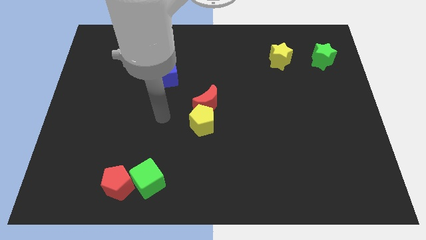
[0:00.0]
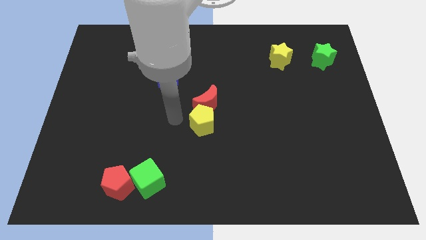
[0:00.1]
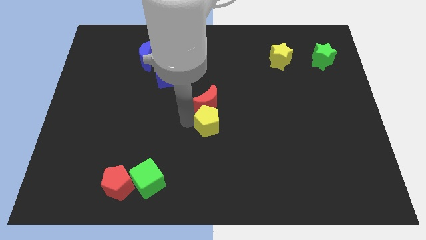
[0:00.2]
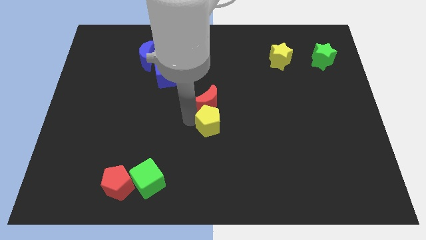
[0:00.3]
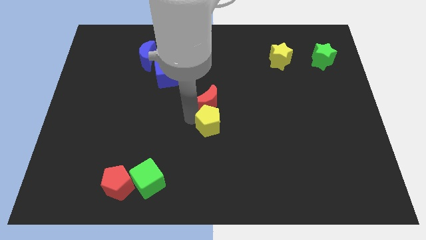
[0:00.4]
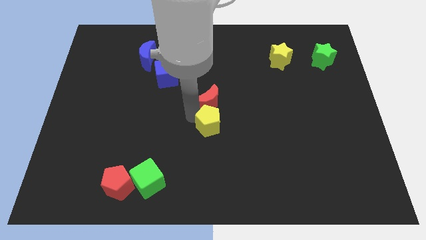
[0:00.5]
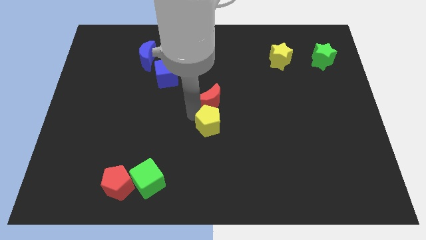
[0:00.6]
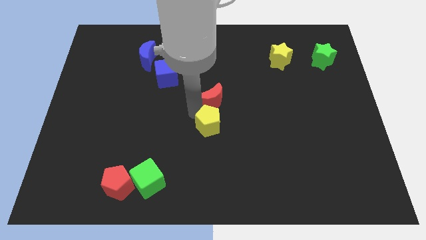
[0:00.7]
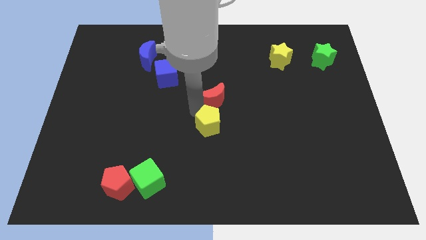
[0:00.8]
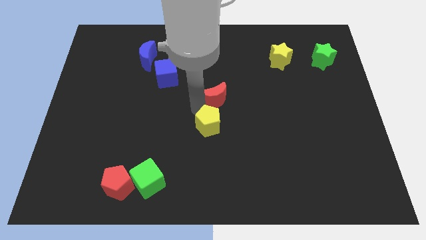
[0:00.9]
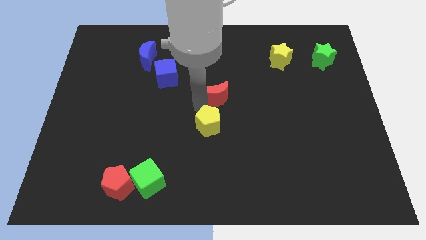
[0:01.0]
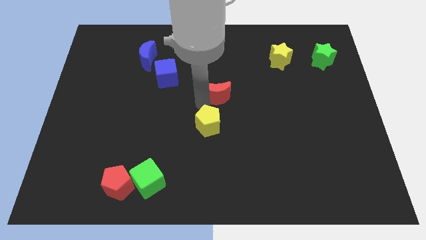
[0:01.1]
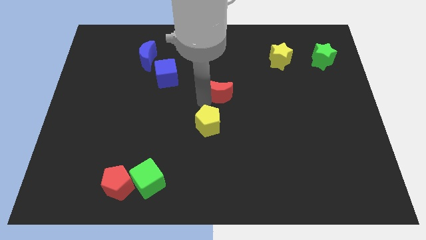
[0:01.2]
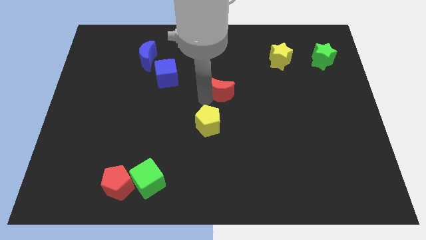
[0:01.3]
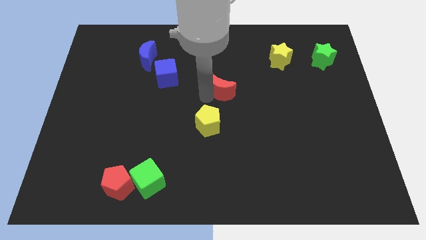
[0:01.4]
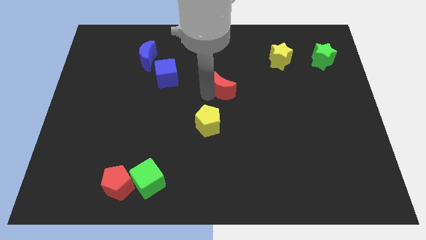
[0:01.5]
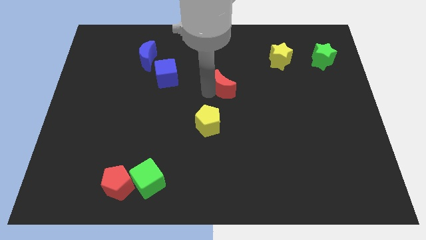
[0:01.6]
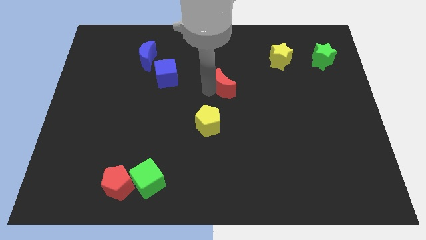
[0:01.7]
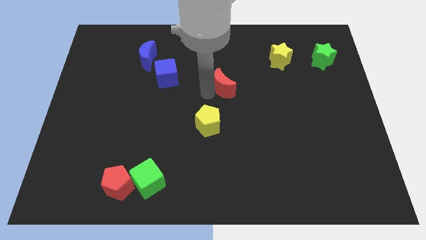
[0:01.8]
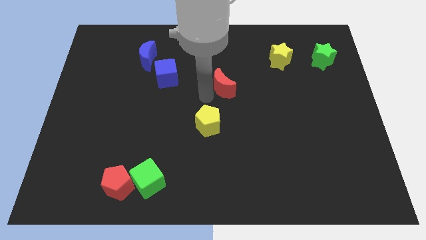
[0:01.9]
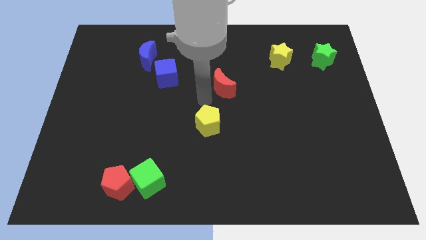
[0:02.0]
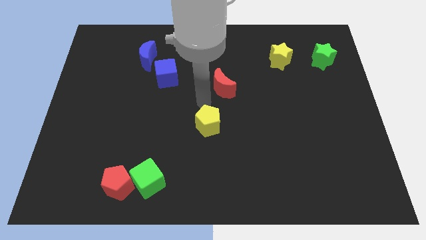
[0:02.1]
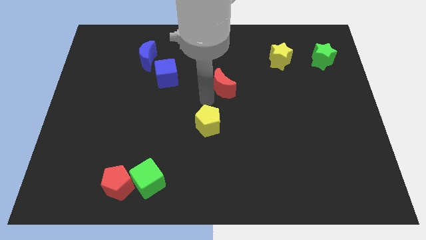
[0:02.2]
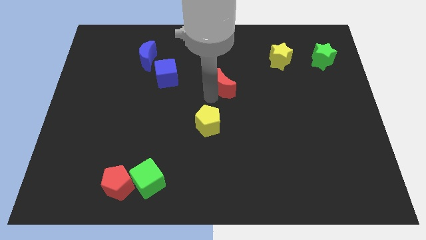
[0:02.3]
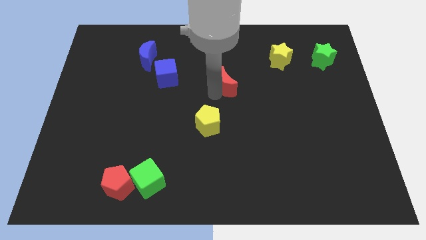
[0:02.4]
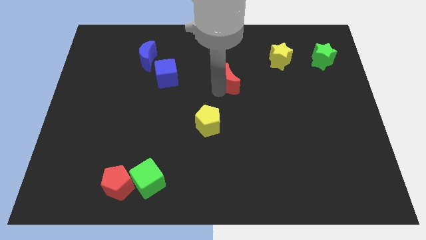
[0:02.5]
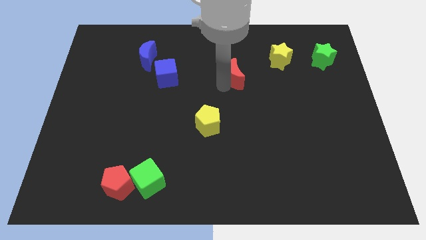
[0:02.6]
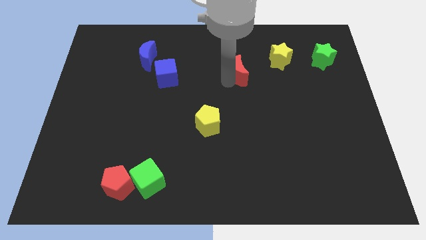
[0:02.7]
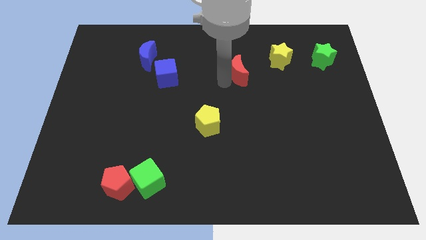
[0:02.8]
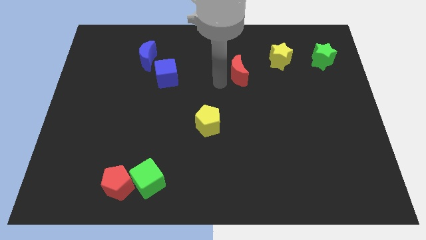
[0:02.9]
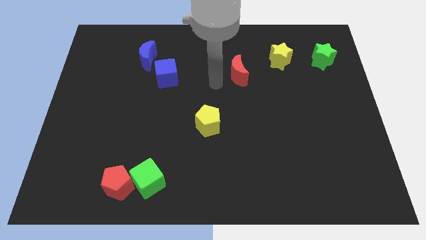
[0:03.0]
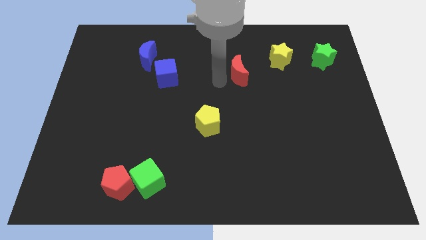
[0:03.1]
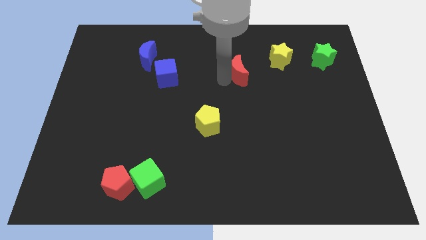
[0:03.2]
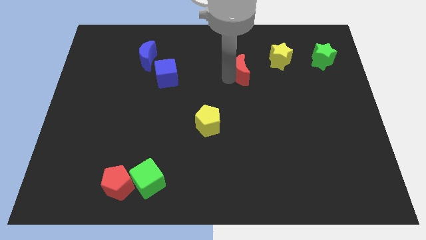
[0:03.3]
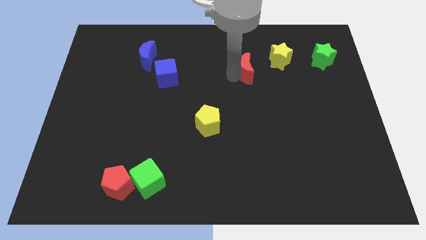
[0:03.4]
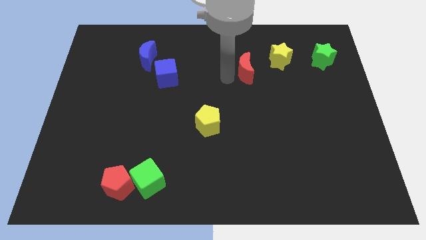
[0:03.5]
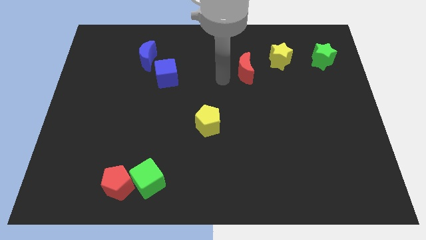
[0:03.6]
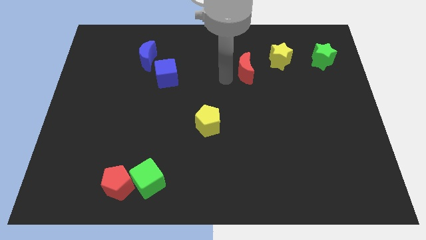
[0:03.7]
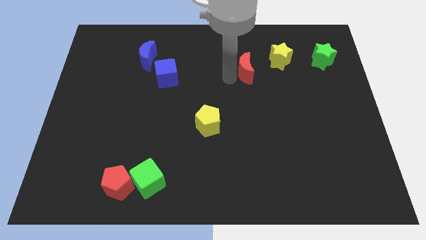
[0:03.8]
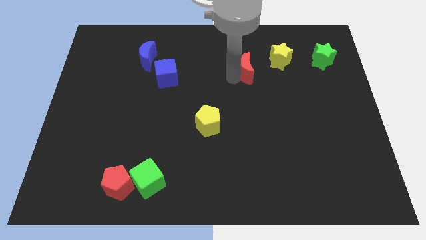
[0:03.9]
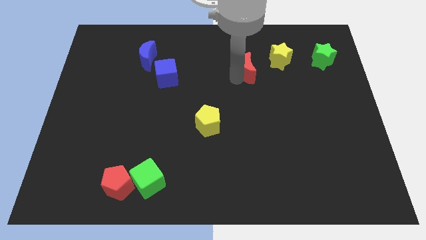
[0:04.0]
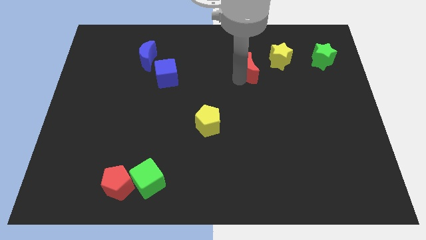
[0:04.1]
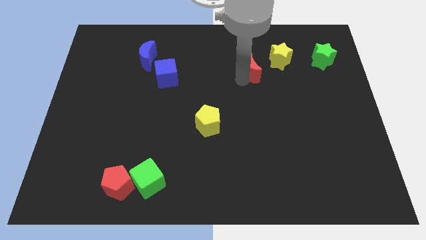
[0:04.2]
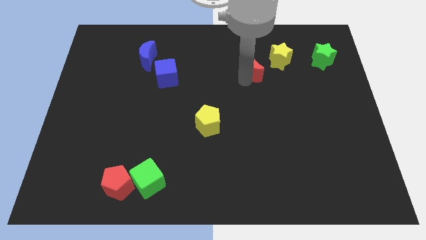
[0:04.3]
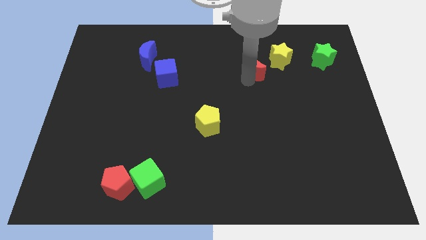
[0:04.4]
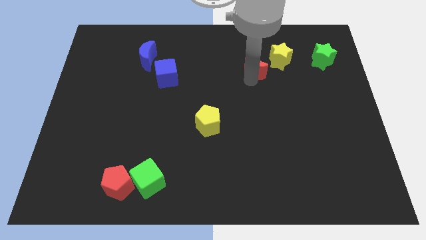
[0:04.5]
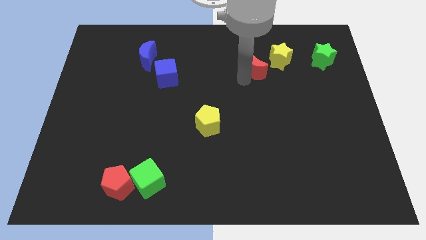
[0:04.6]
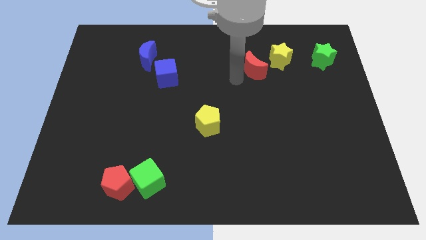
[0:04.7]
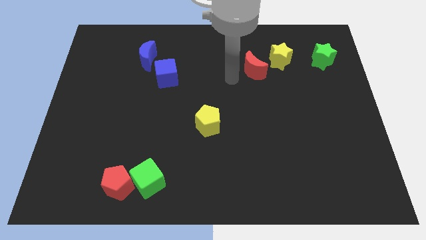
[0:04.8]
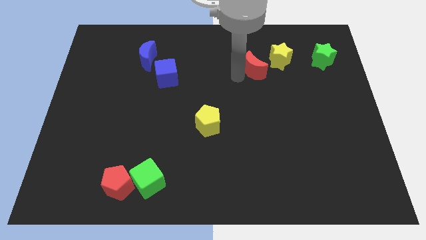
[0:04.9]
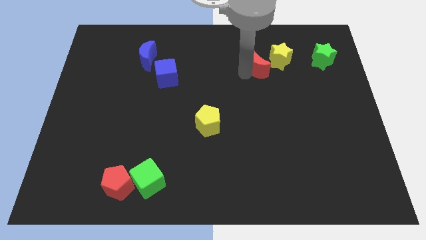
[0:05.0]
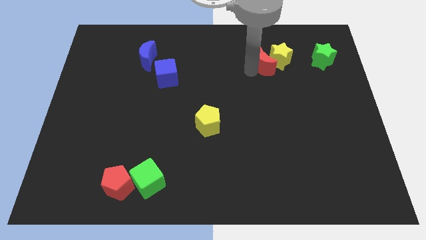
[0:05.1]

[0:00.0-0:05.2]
slide the red moon next to the yellow star

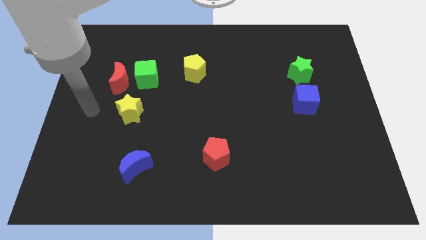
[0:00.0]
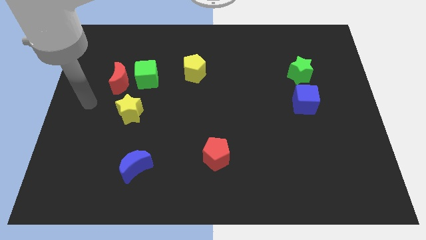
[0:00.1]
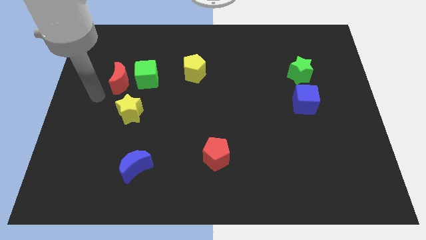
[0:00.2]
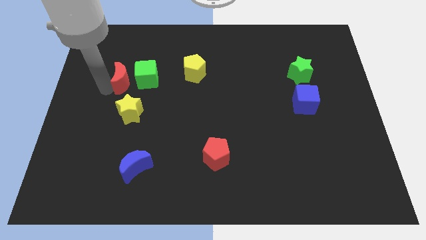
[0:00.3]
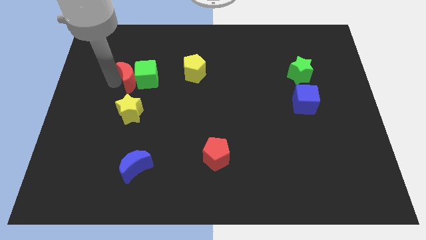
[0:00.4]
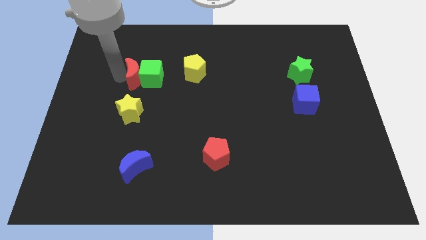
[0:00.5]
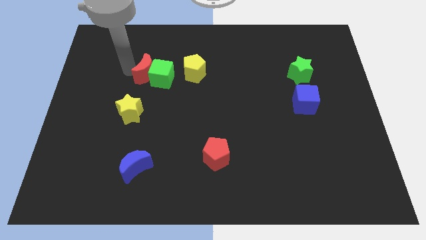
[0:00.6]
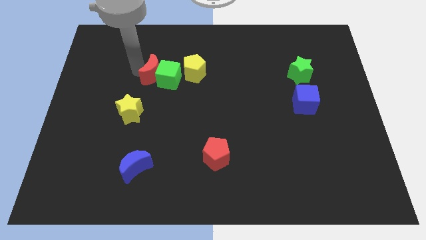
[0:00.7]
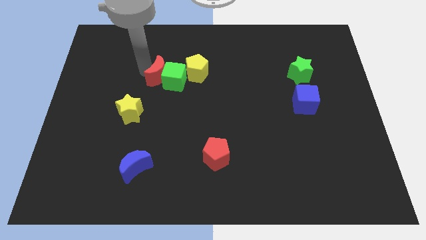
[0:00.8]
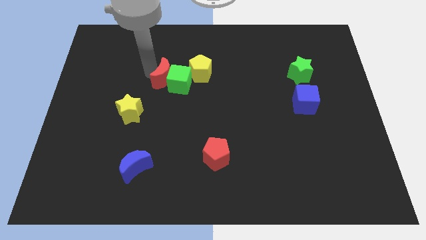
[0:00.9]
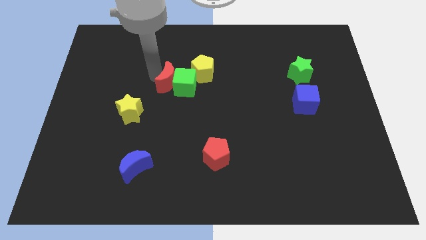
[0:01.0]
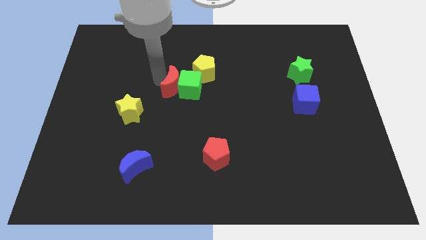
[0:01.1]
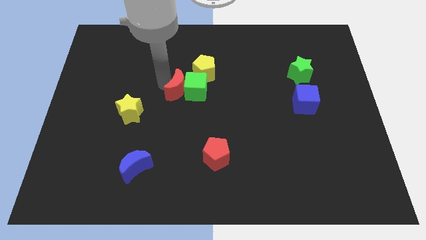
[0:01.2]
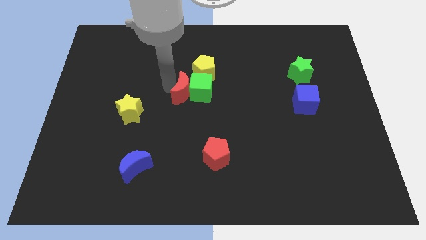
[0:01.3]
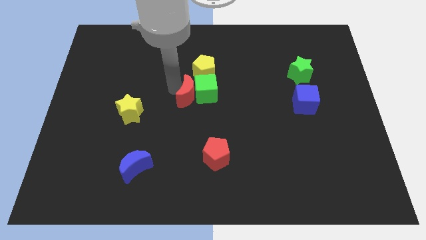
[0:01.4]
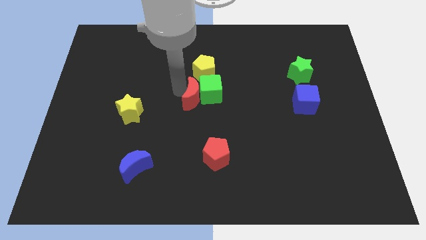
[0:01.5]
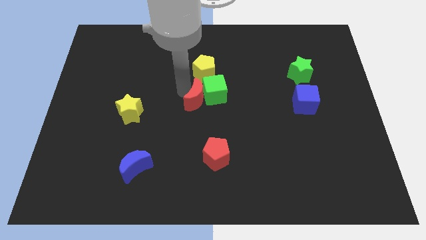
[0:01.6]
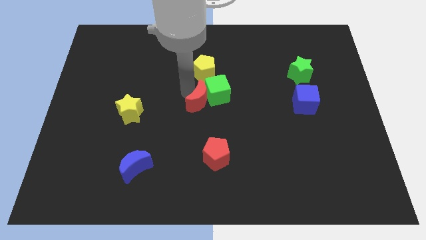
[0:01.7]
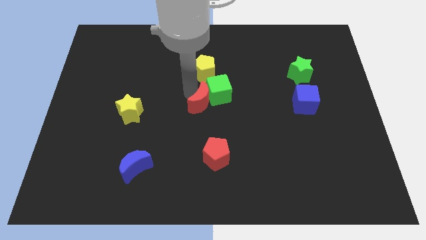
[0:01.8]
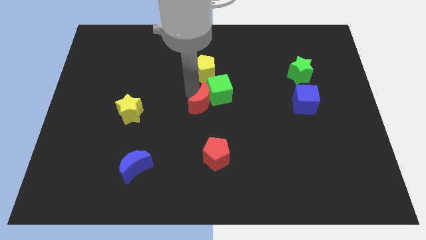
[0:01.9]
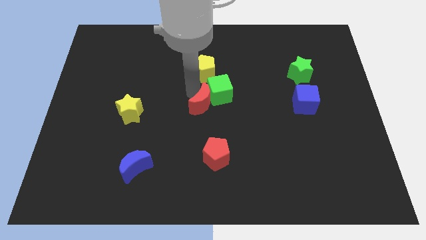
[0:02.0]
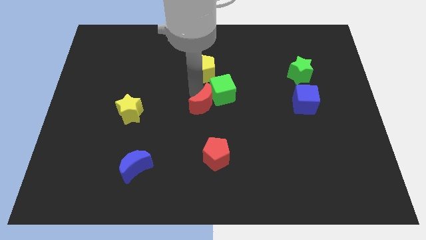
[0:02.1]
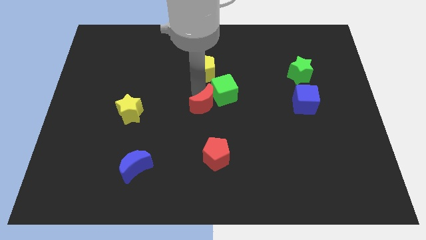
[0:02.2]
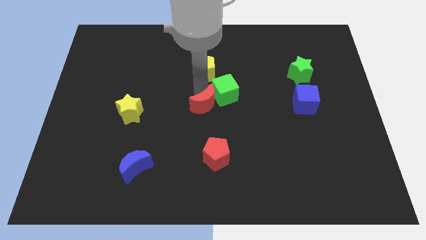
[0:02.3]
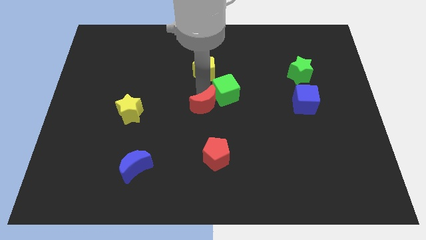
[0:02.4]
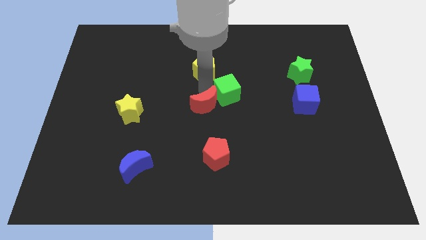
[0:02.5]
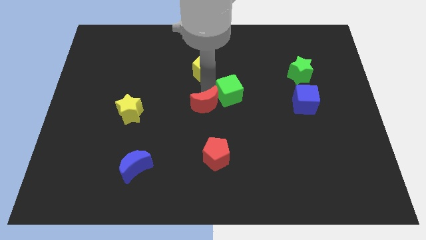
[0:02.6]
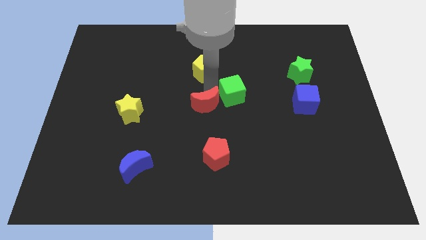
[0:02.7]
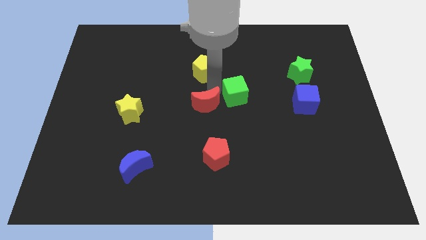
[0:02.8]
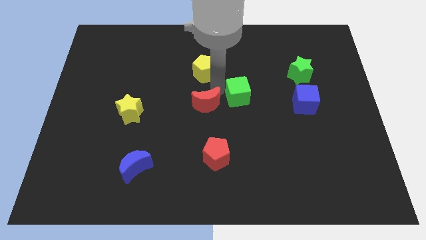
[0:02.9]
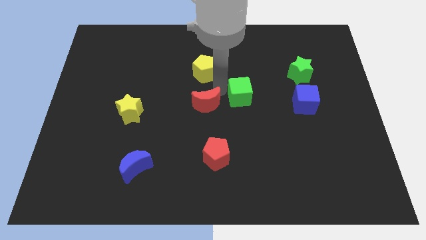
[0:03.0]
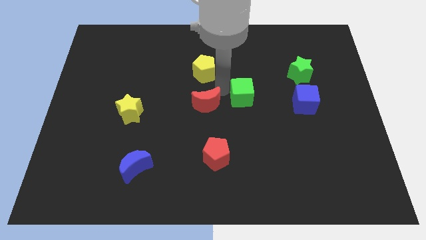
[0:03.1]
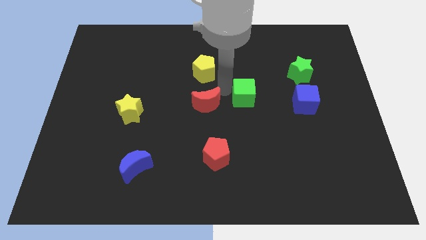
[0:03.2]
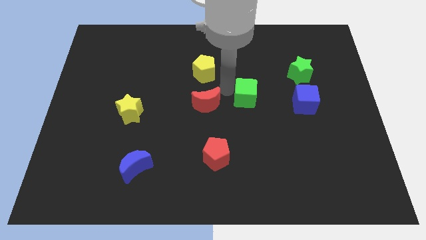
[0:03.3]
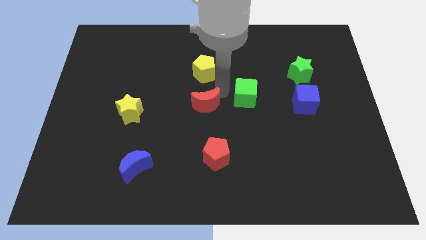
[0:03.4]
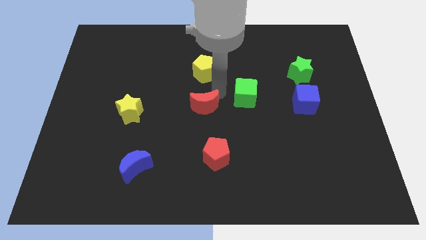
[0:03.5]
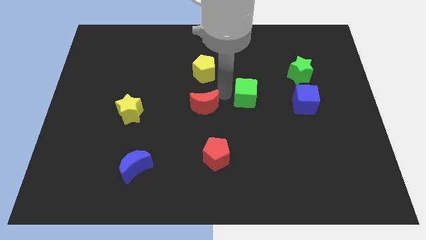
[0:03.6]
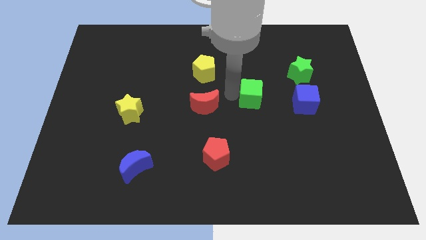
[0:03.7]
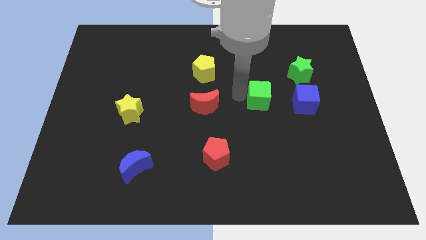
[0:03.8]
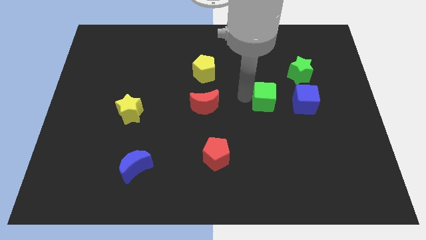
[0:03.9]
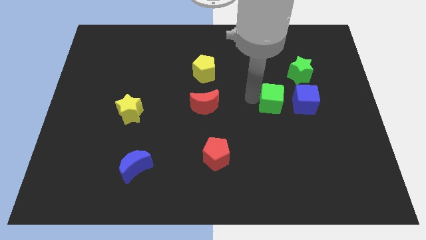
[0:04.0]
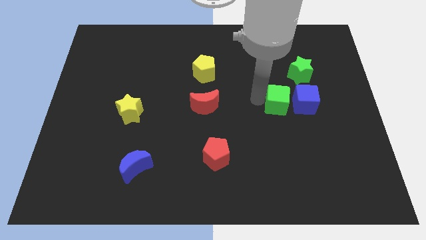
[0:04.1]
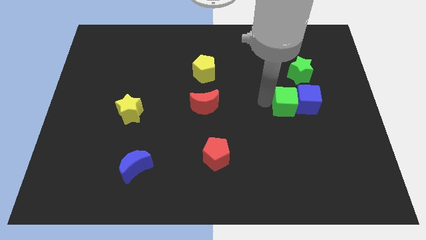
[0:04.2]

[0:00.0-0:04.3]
move the green cube towards the blue cube
